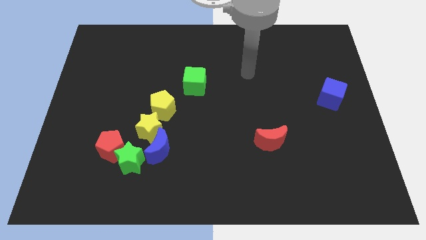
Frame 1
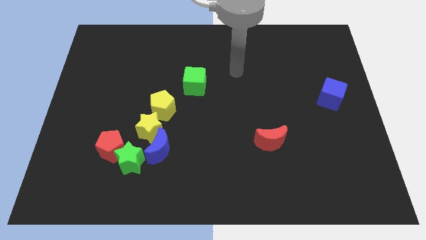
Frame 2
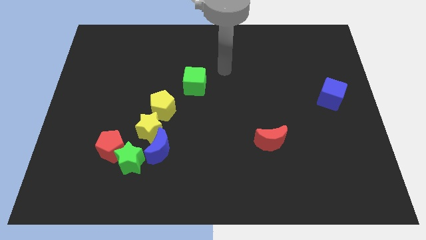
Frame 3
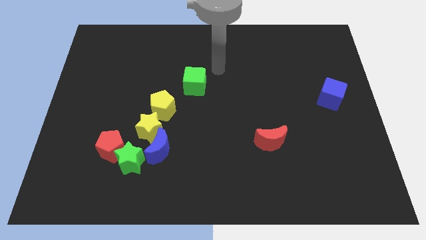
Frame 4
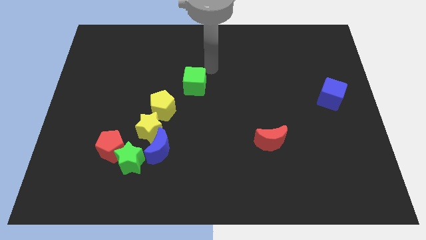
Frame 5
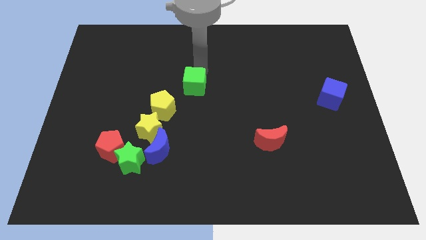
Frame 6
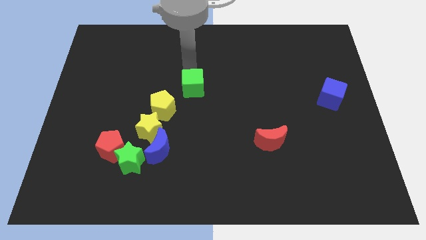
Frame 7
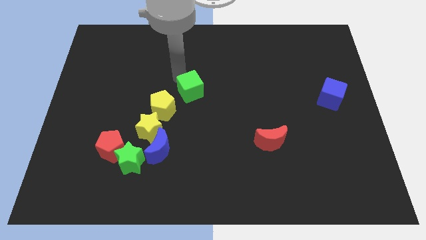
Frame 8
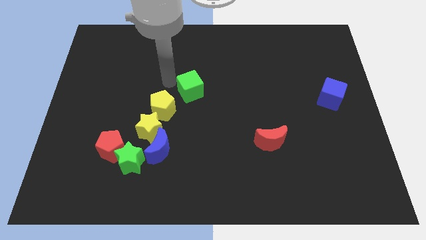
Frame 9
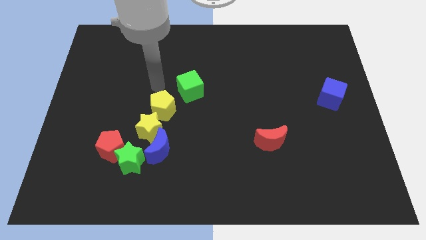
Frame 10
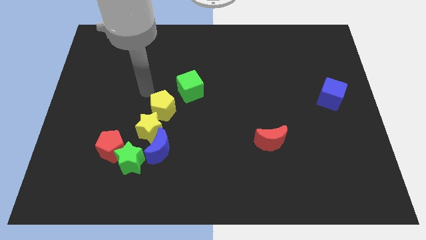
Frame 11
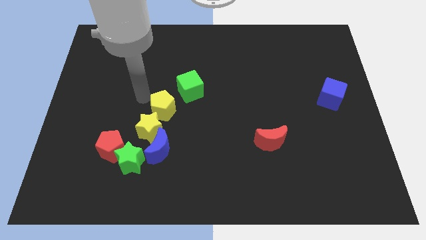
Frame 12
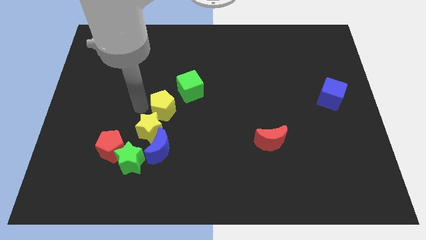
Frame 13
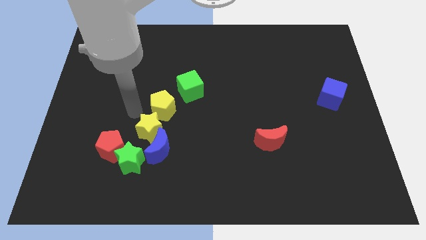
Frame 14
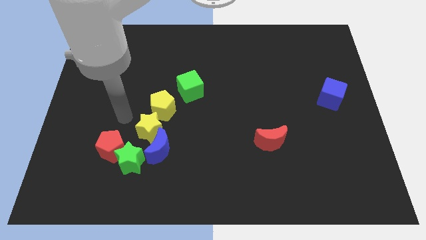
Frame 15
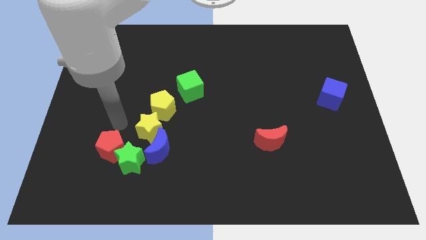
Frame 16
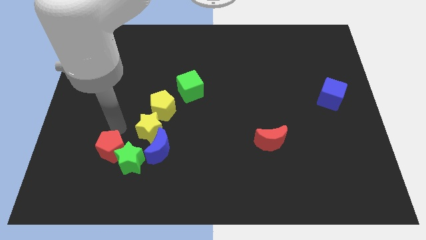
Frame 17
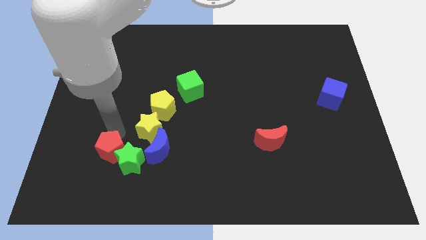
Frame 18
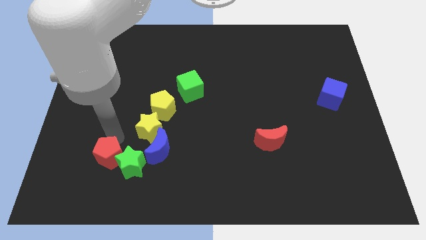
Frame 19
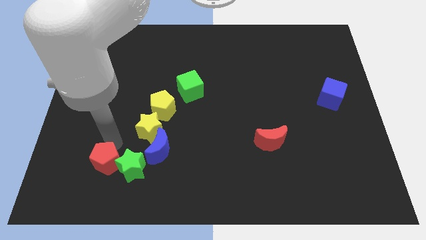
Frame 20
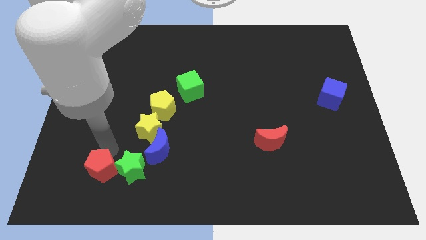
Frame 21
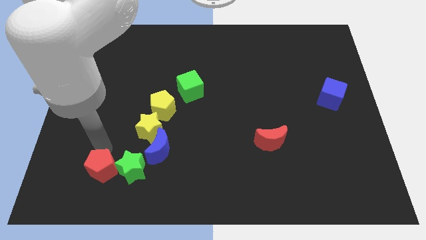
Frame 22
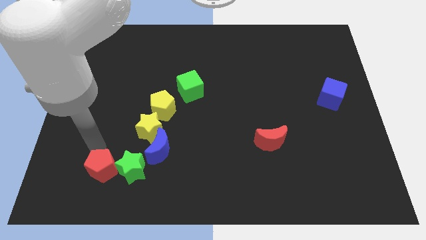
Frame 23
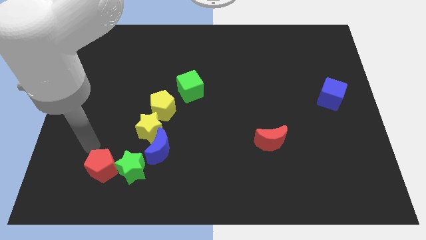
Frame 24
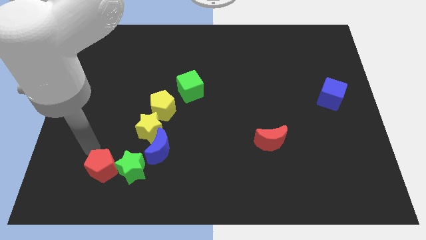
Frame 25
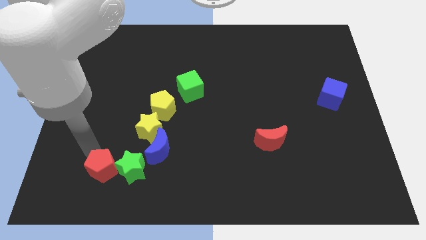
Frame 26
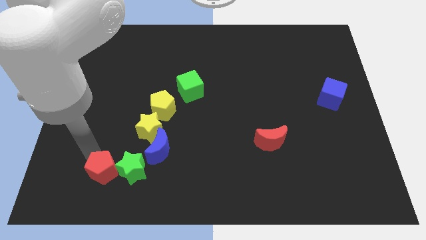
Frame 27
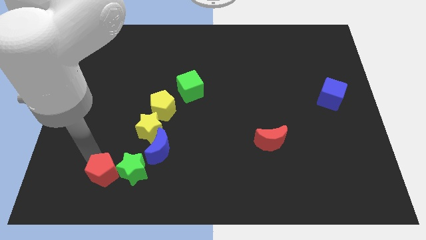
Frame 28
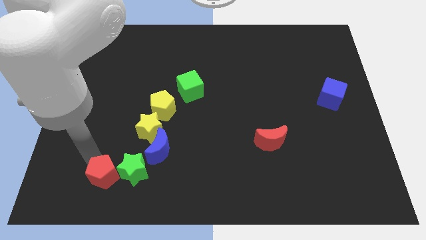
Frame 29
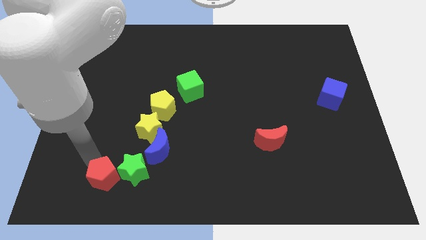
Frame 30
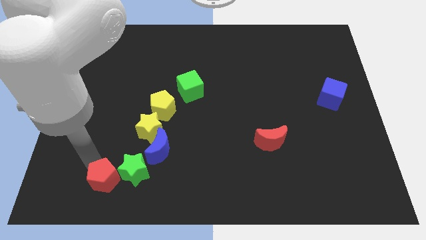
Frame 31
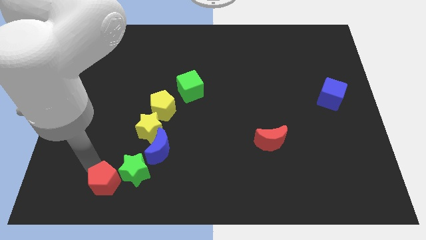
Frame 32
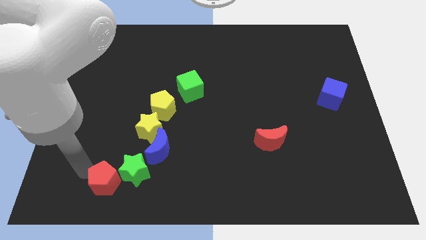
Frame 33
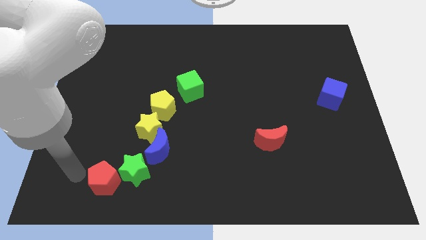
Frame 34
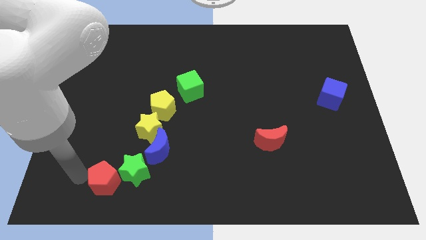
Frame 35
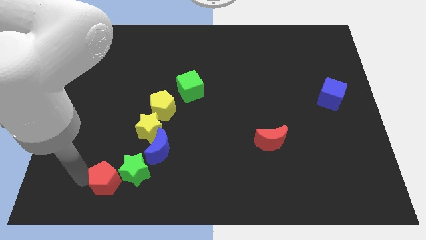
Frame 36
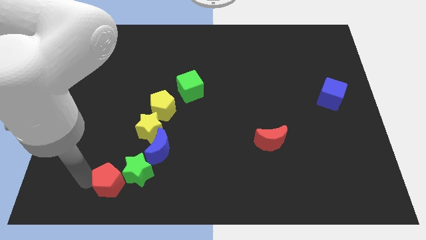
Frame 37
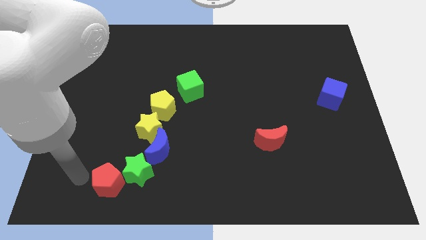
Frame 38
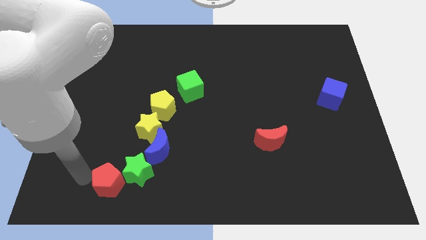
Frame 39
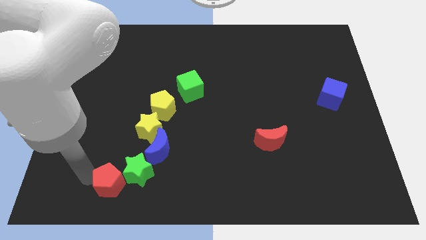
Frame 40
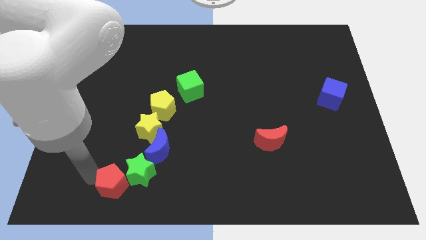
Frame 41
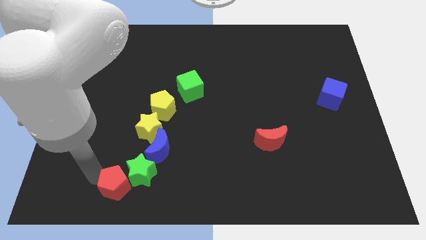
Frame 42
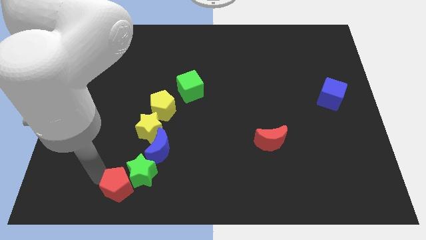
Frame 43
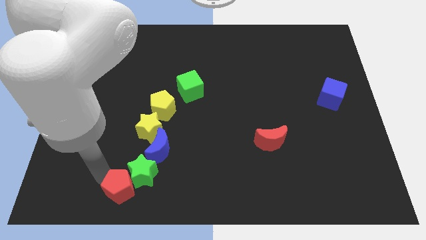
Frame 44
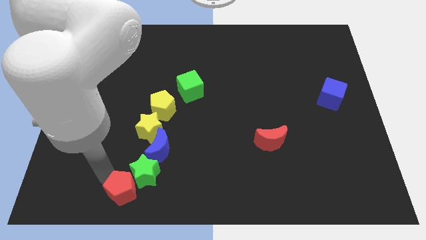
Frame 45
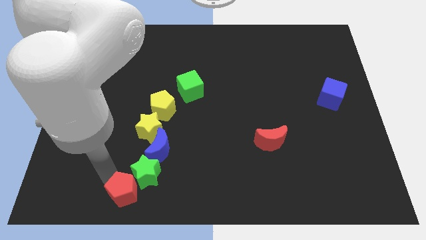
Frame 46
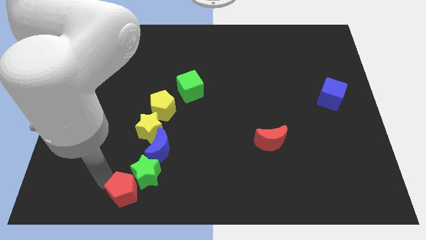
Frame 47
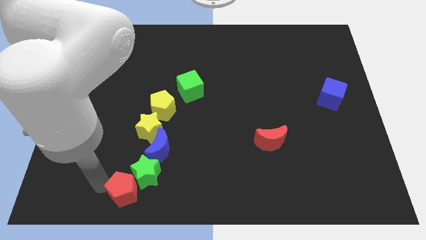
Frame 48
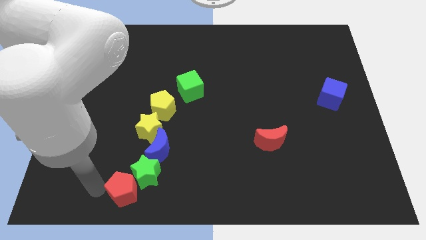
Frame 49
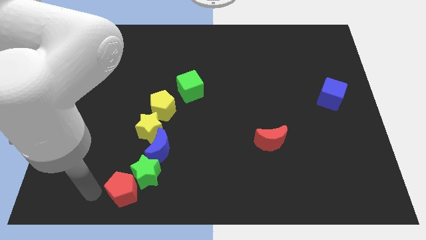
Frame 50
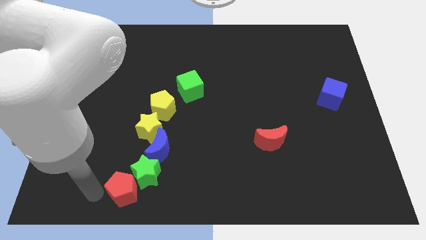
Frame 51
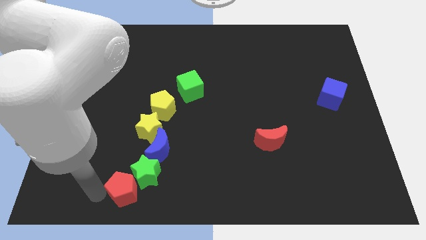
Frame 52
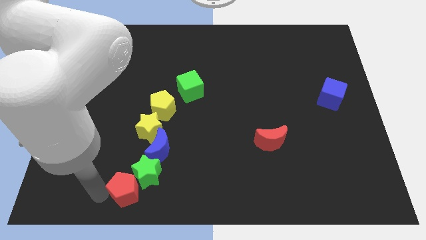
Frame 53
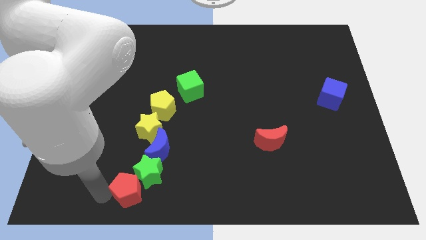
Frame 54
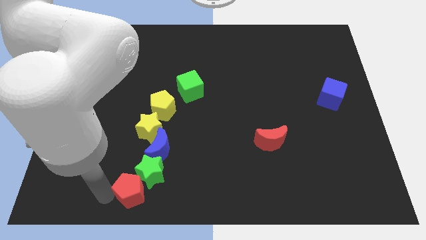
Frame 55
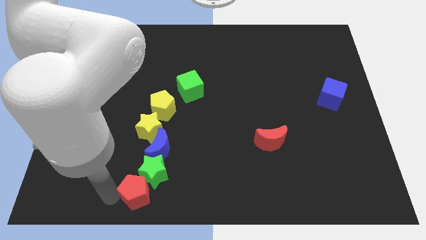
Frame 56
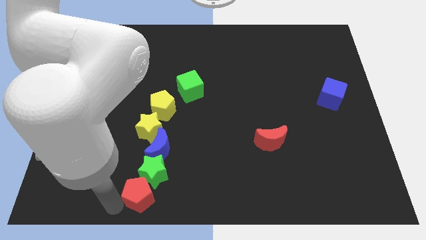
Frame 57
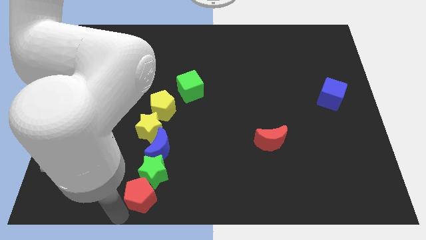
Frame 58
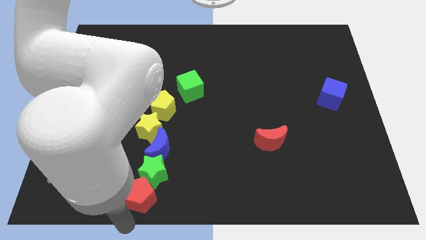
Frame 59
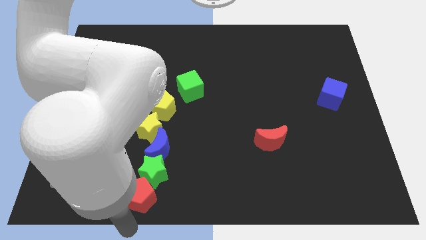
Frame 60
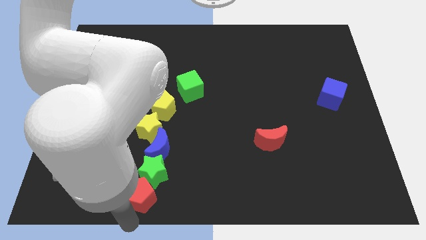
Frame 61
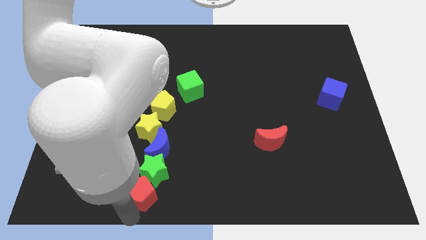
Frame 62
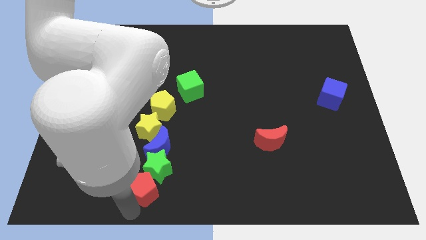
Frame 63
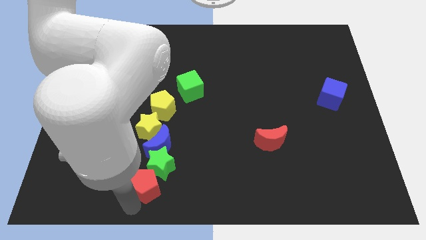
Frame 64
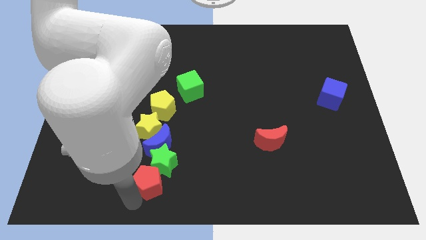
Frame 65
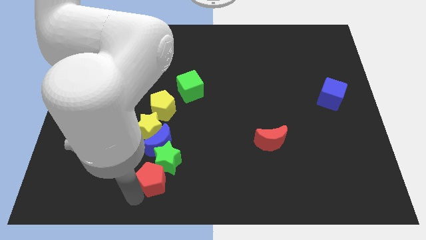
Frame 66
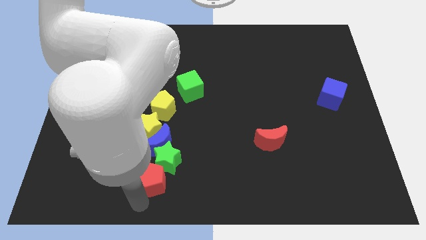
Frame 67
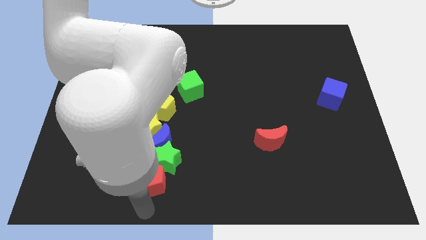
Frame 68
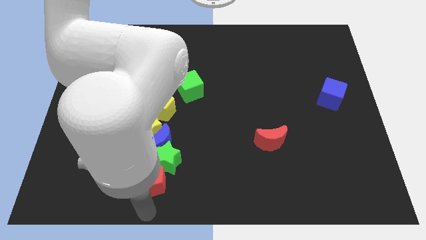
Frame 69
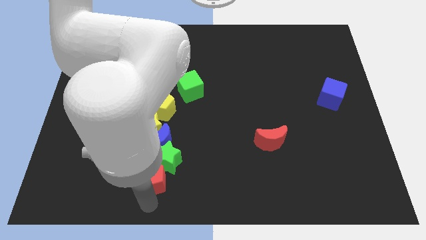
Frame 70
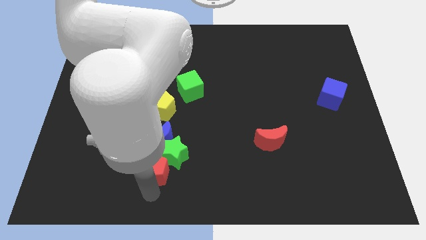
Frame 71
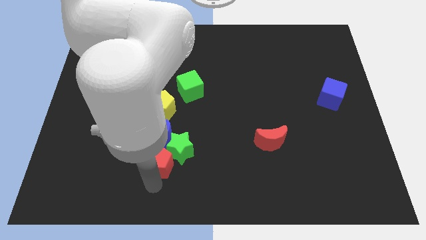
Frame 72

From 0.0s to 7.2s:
slide the red pentagon towards the blue moon
